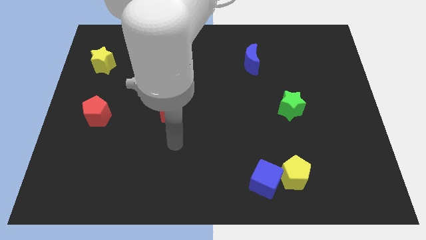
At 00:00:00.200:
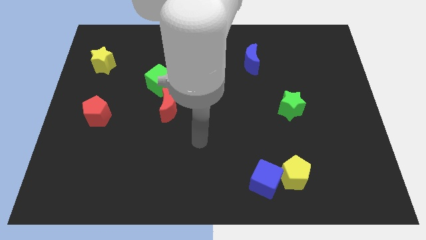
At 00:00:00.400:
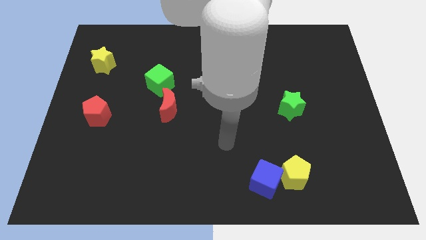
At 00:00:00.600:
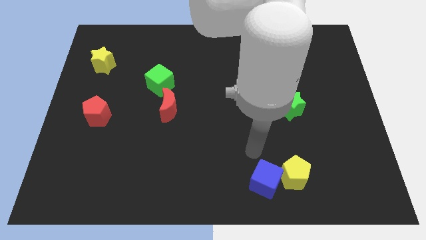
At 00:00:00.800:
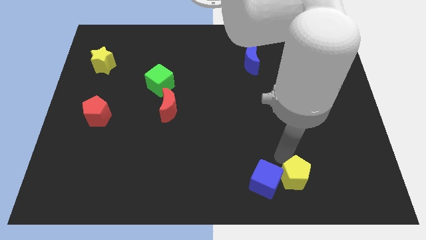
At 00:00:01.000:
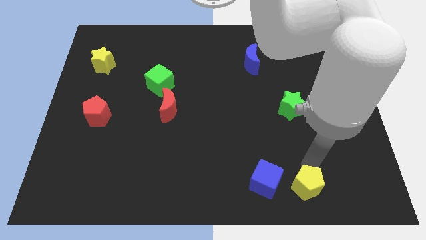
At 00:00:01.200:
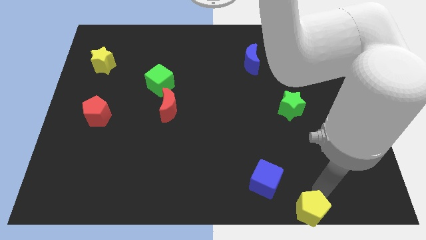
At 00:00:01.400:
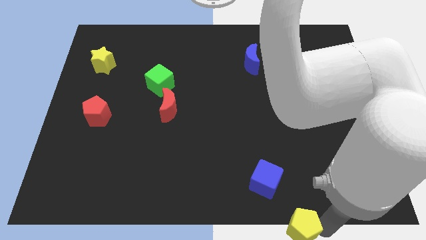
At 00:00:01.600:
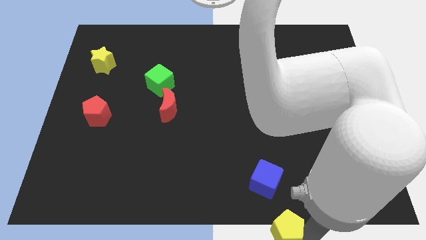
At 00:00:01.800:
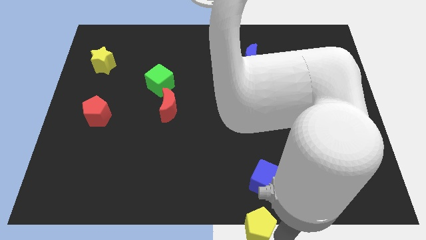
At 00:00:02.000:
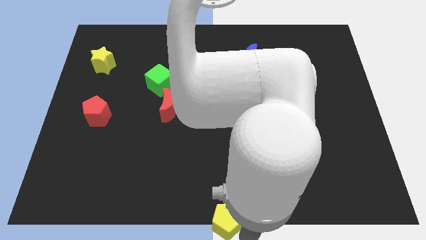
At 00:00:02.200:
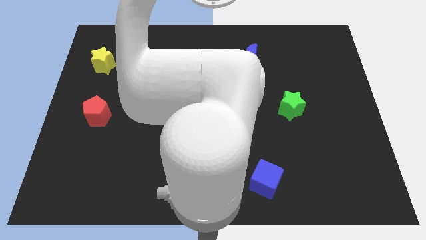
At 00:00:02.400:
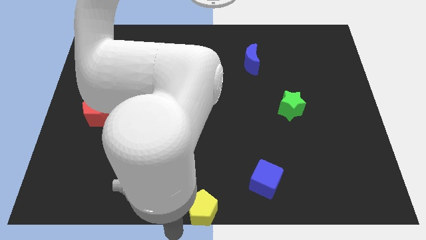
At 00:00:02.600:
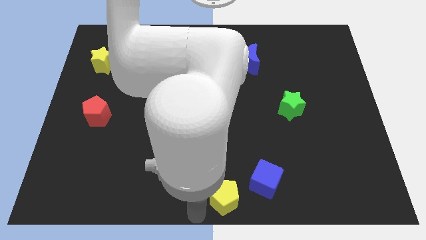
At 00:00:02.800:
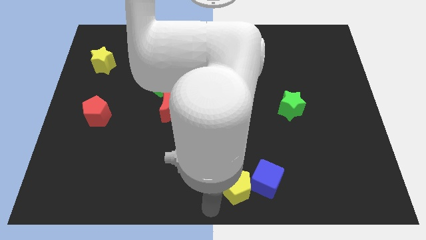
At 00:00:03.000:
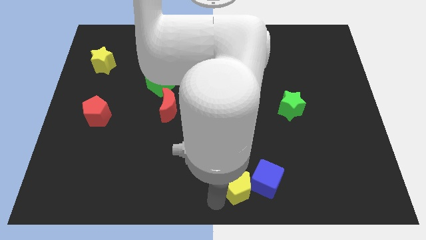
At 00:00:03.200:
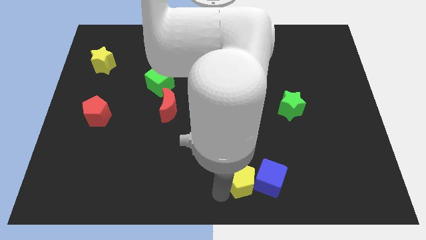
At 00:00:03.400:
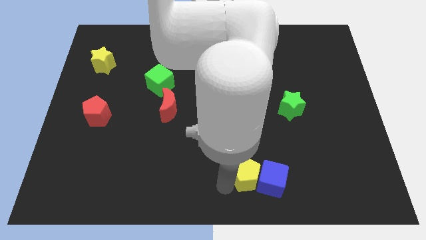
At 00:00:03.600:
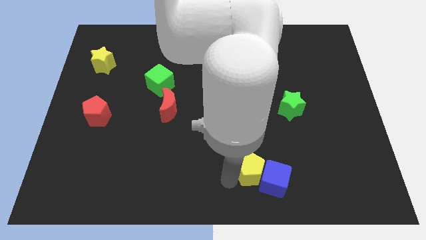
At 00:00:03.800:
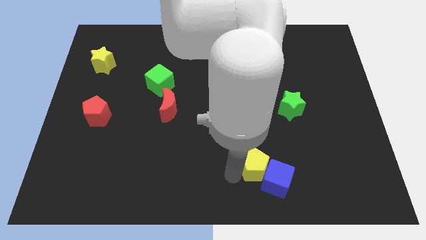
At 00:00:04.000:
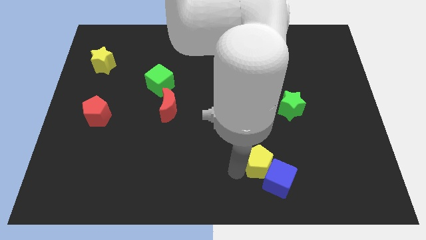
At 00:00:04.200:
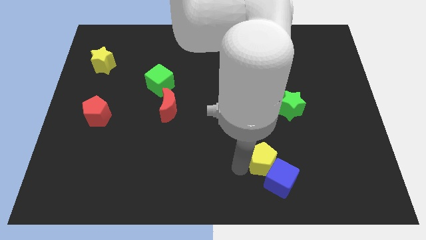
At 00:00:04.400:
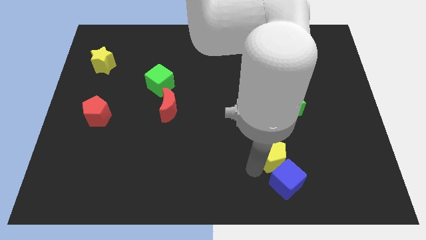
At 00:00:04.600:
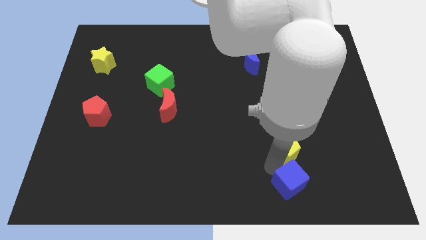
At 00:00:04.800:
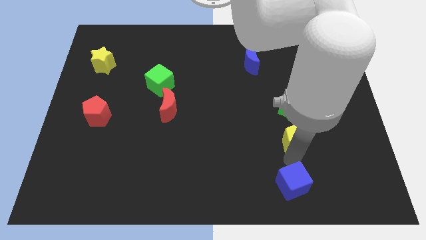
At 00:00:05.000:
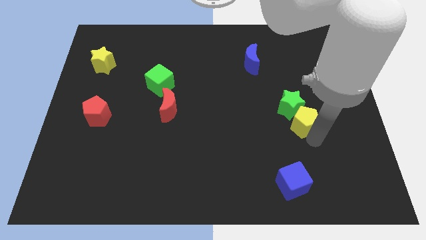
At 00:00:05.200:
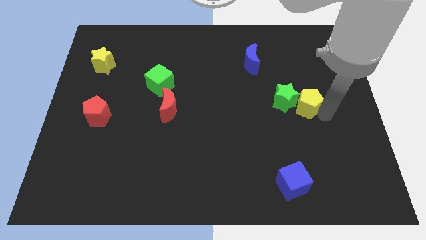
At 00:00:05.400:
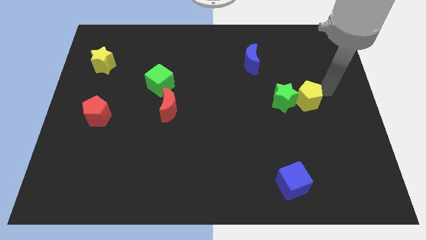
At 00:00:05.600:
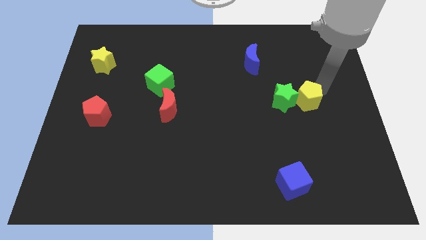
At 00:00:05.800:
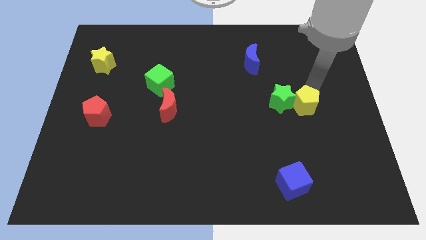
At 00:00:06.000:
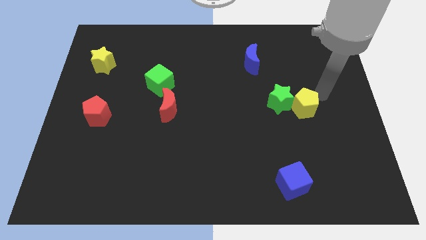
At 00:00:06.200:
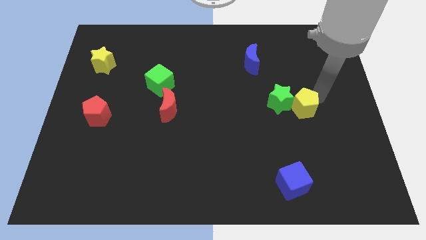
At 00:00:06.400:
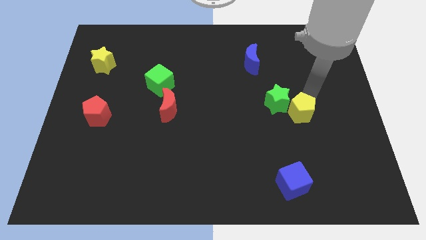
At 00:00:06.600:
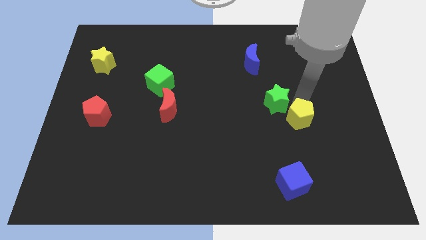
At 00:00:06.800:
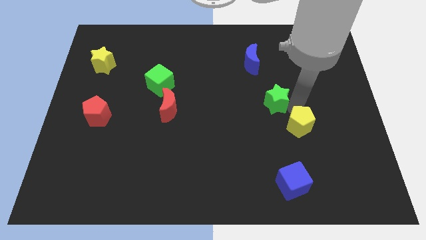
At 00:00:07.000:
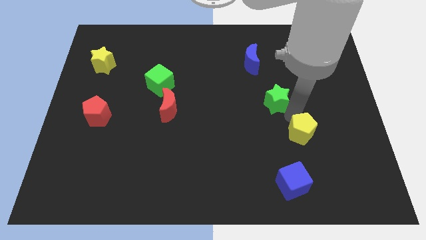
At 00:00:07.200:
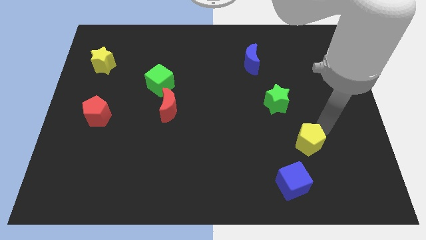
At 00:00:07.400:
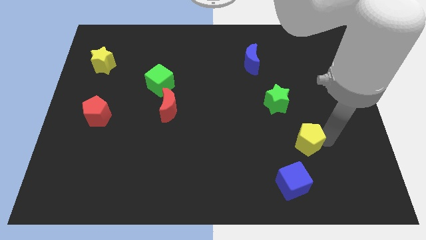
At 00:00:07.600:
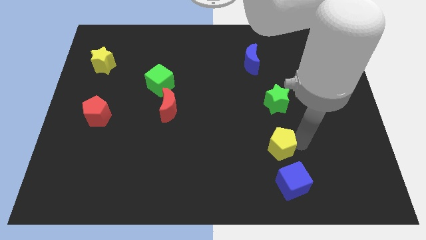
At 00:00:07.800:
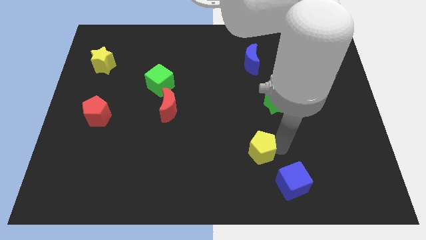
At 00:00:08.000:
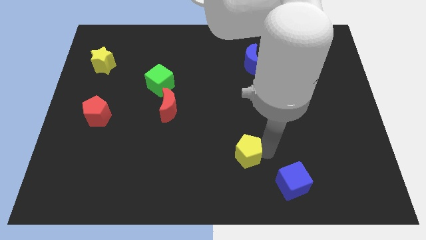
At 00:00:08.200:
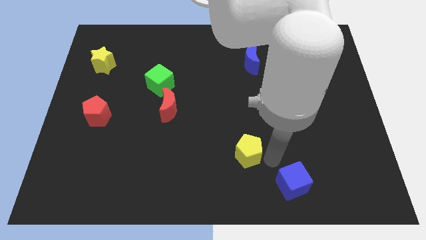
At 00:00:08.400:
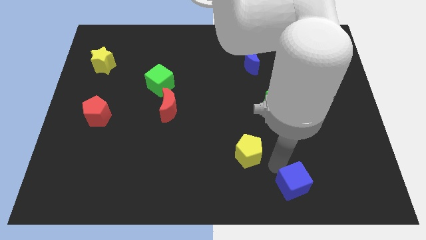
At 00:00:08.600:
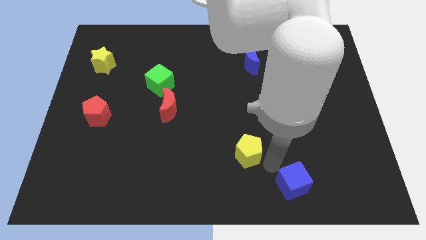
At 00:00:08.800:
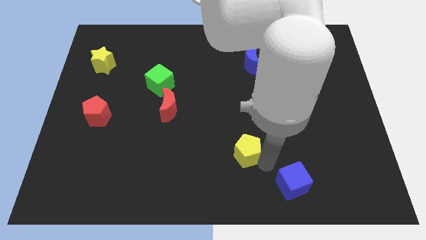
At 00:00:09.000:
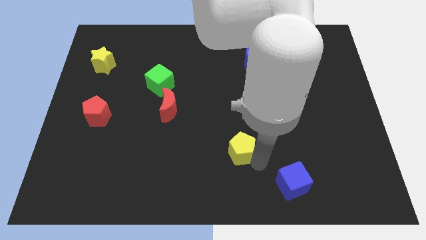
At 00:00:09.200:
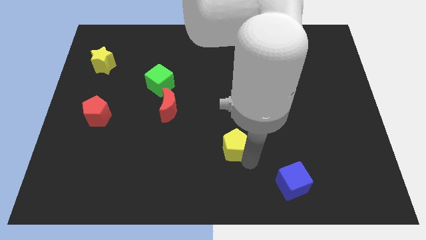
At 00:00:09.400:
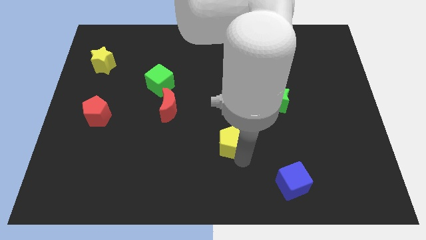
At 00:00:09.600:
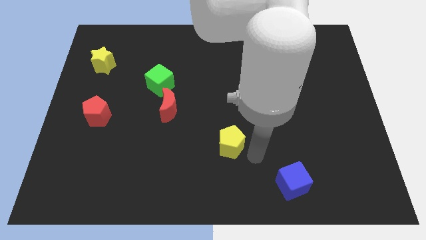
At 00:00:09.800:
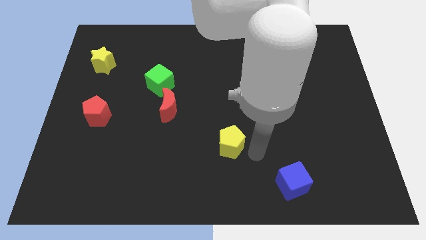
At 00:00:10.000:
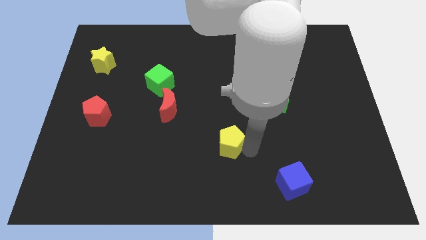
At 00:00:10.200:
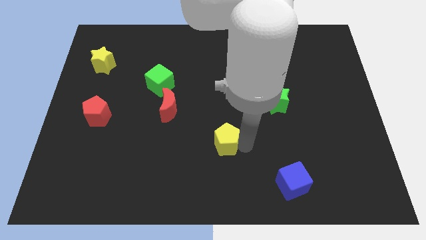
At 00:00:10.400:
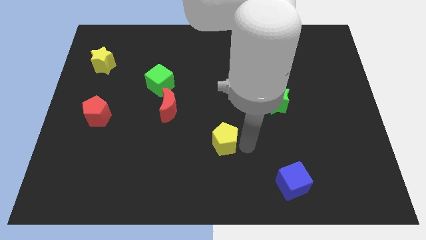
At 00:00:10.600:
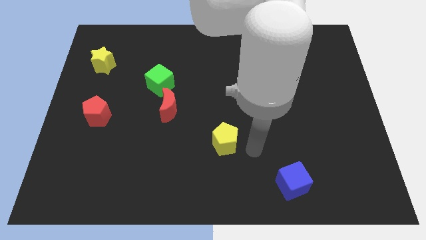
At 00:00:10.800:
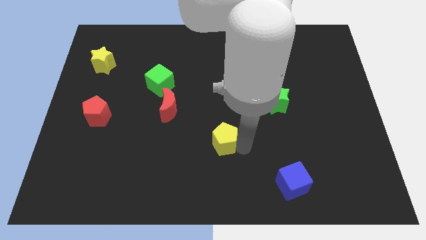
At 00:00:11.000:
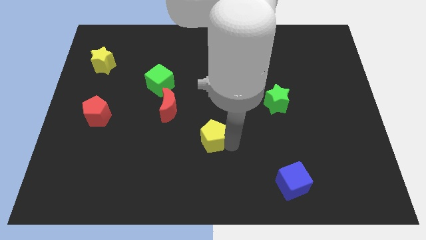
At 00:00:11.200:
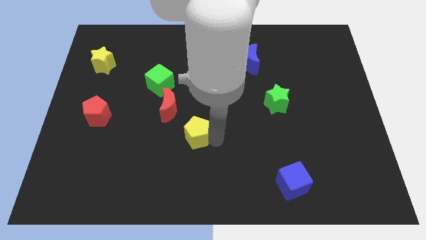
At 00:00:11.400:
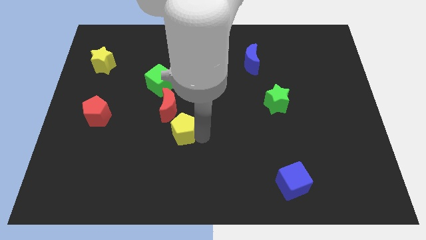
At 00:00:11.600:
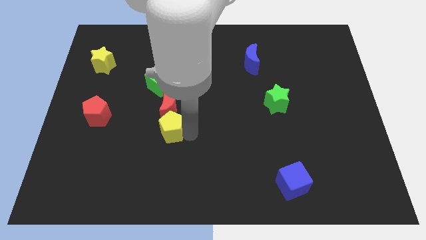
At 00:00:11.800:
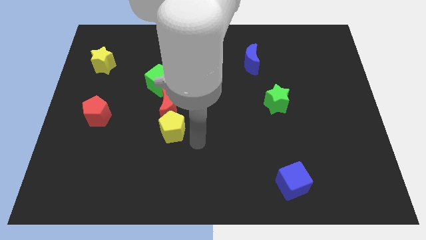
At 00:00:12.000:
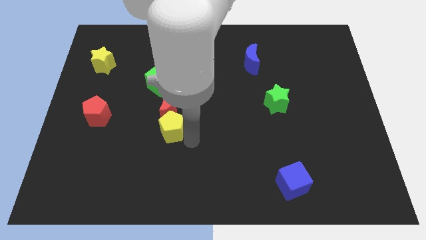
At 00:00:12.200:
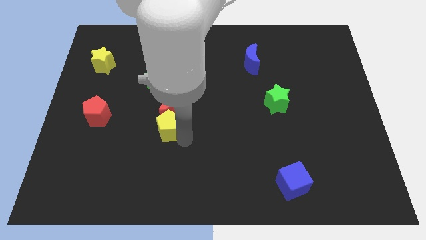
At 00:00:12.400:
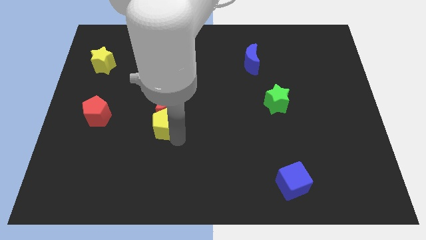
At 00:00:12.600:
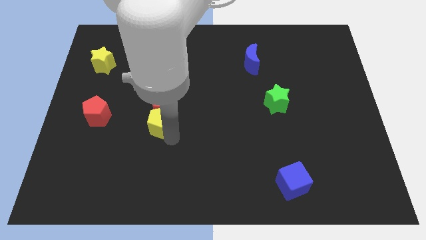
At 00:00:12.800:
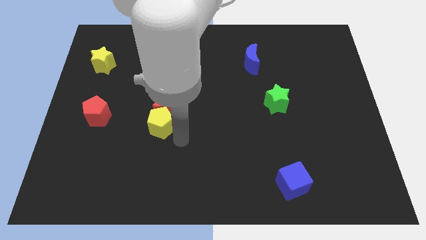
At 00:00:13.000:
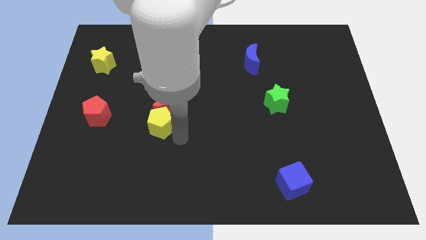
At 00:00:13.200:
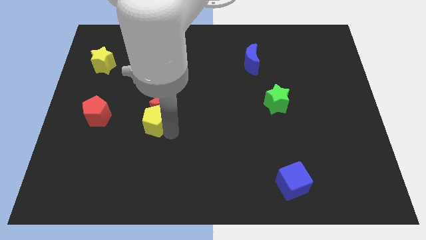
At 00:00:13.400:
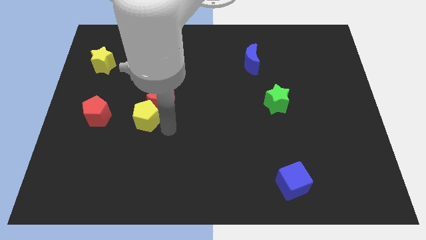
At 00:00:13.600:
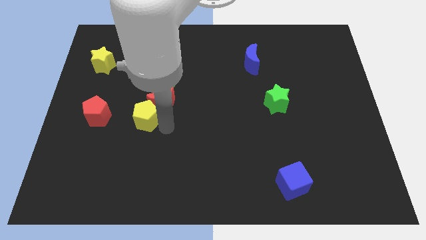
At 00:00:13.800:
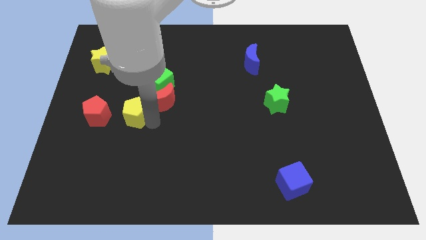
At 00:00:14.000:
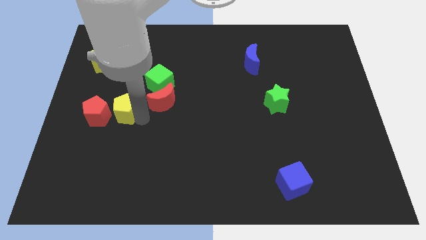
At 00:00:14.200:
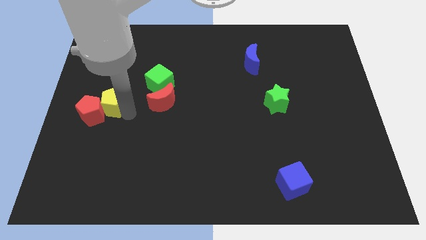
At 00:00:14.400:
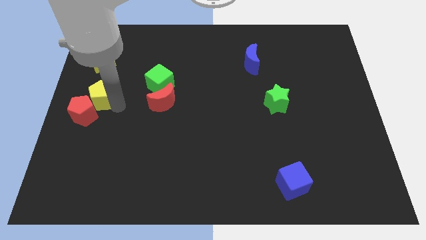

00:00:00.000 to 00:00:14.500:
slide the yellow pentagon to the left side of the board
